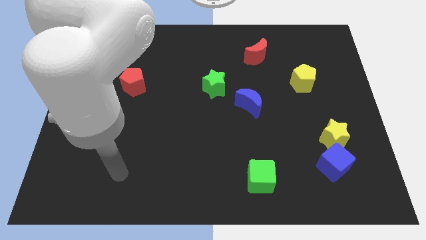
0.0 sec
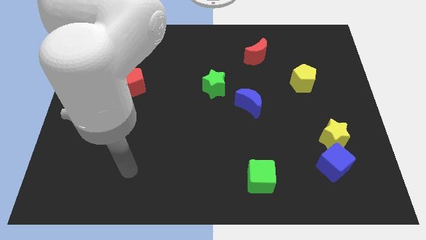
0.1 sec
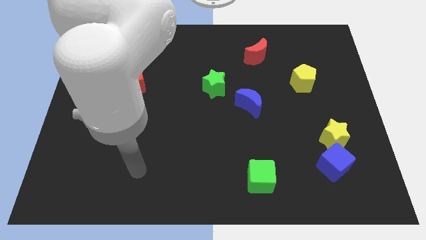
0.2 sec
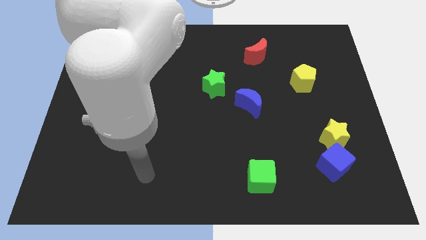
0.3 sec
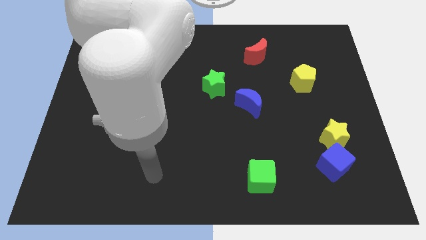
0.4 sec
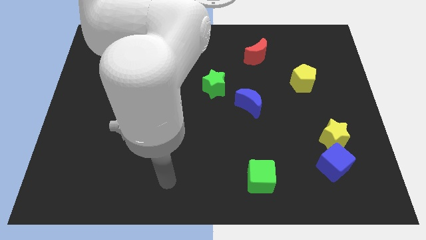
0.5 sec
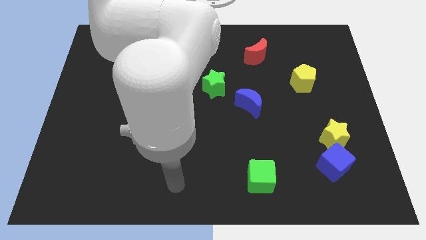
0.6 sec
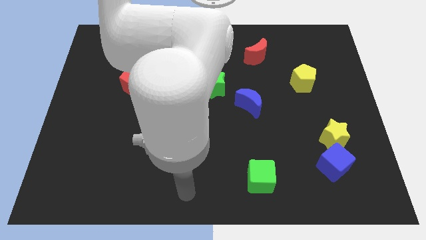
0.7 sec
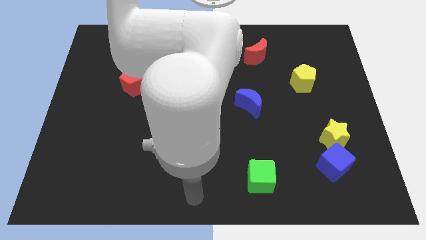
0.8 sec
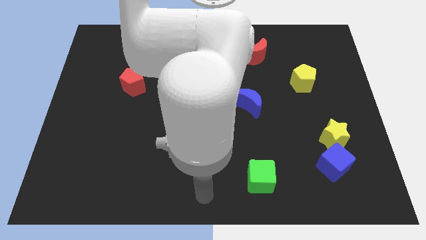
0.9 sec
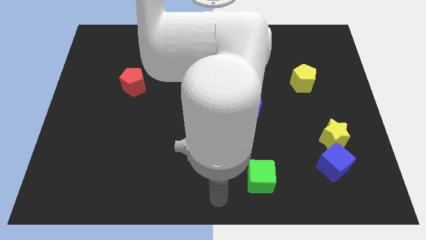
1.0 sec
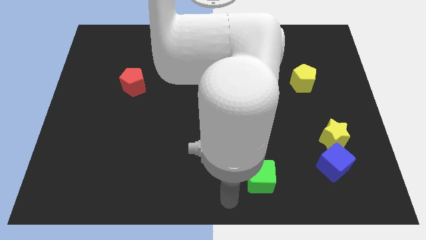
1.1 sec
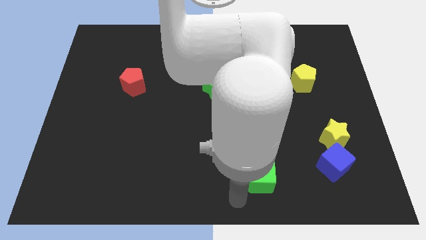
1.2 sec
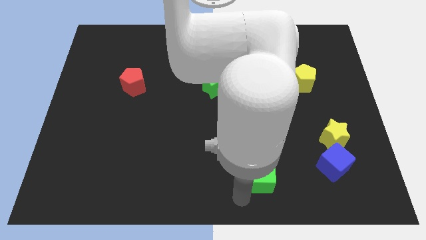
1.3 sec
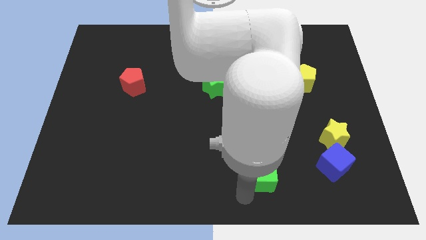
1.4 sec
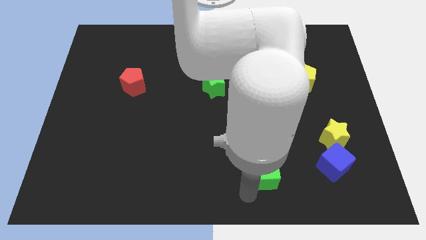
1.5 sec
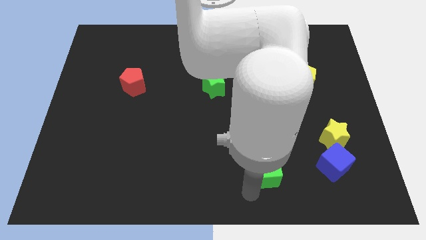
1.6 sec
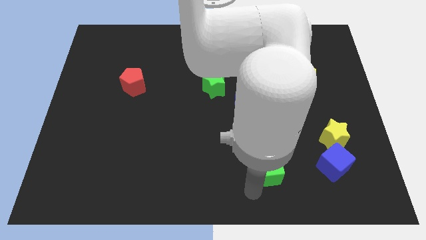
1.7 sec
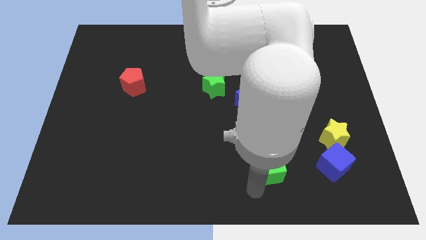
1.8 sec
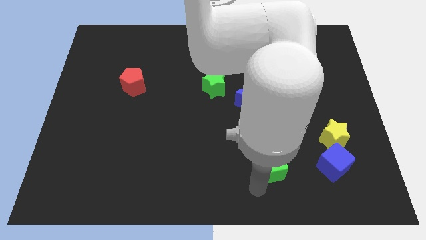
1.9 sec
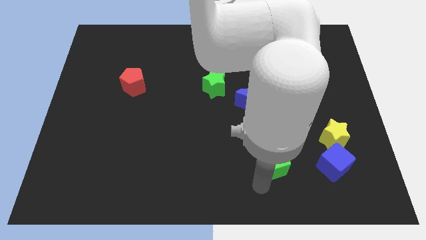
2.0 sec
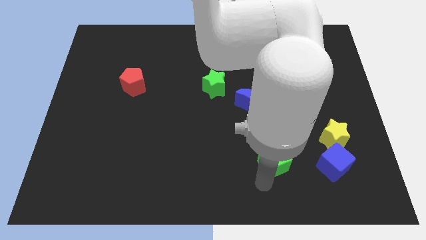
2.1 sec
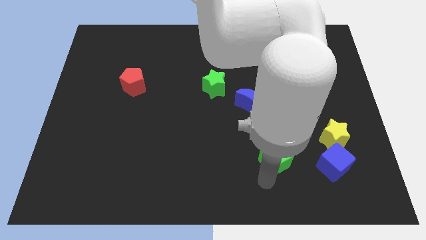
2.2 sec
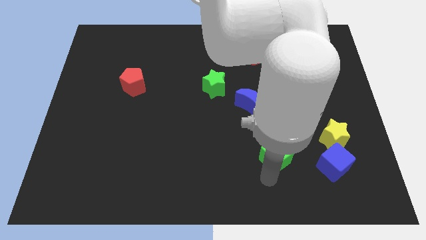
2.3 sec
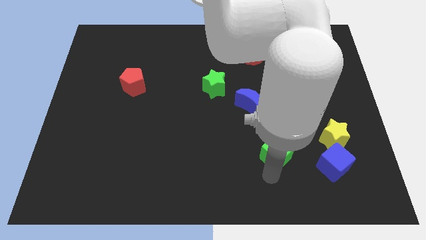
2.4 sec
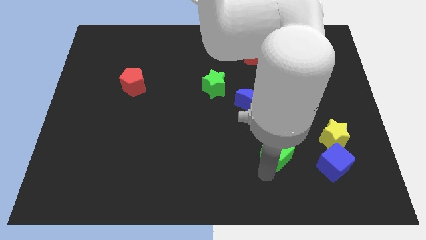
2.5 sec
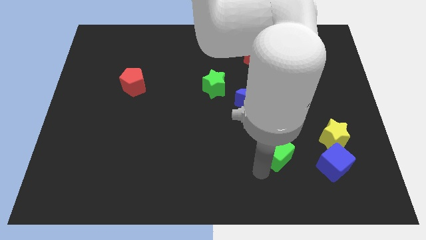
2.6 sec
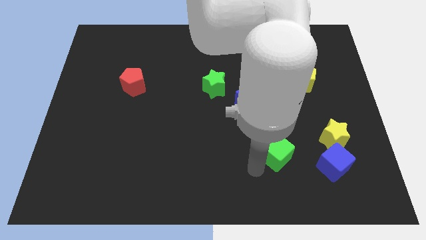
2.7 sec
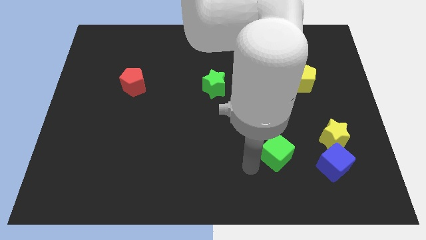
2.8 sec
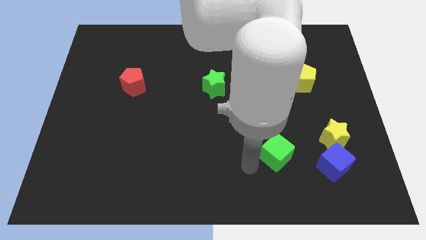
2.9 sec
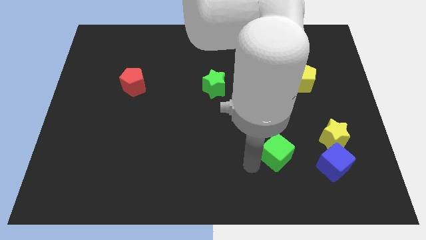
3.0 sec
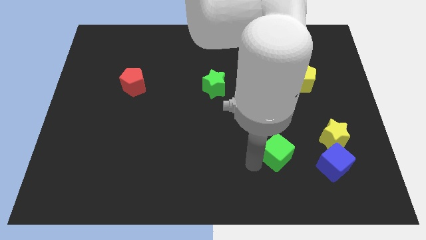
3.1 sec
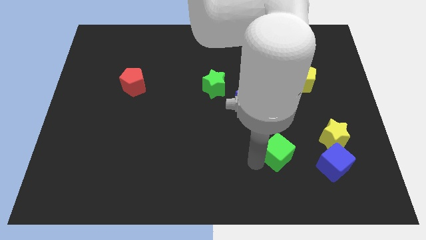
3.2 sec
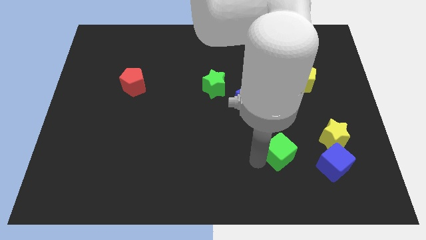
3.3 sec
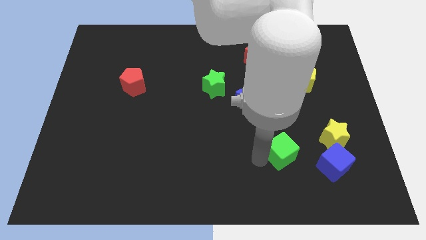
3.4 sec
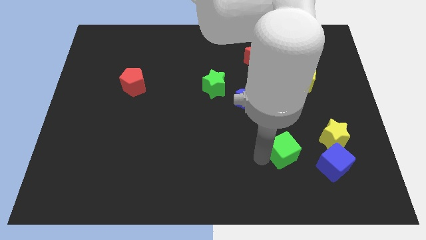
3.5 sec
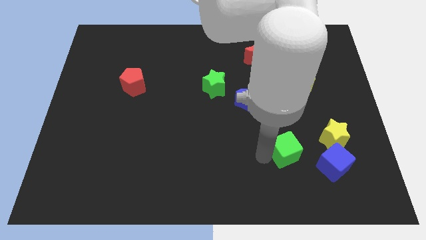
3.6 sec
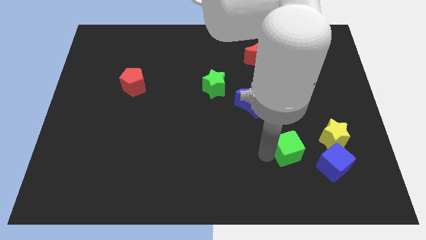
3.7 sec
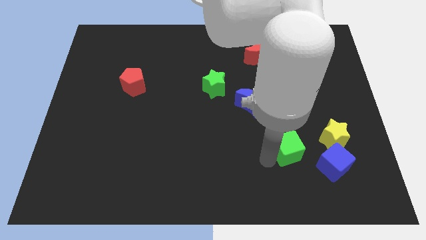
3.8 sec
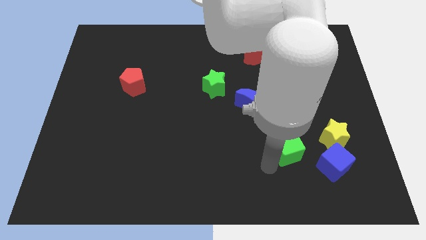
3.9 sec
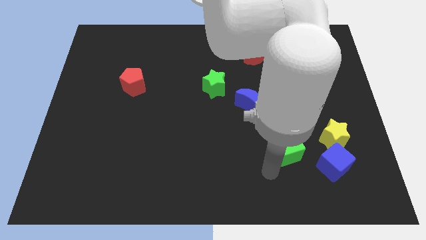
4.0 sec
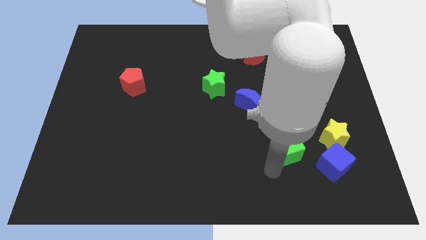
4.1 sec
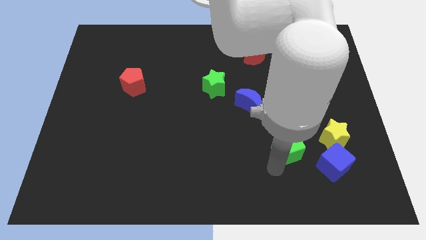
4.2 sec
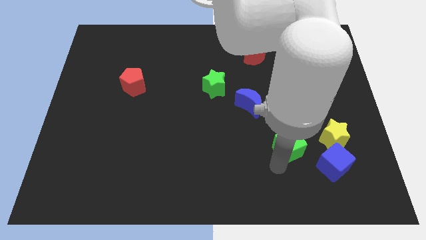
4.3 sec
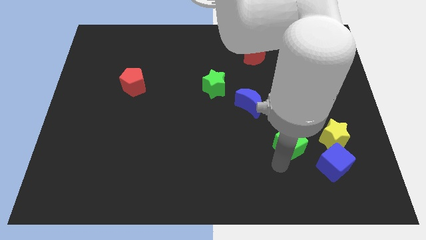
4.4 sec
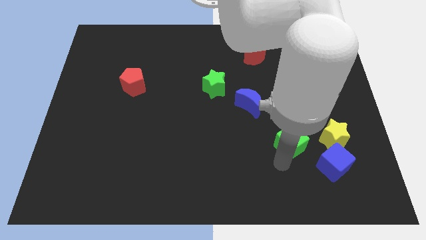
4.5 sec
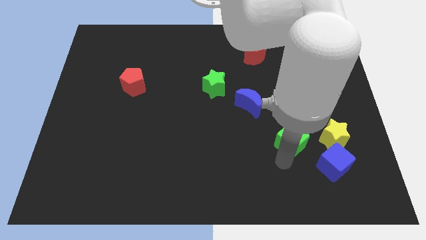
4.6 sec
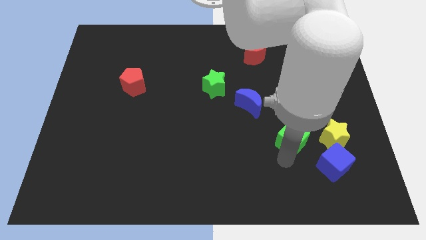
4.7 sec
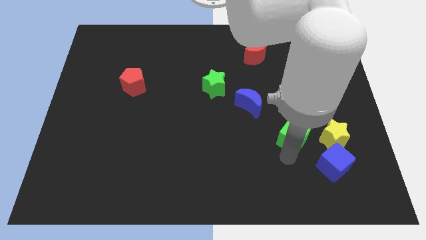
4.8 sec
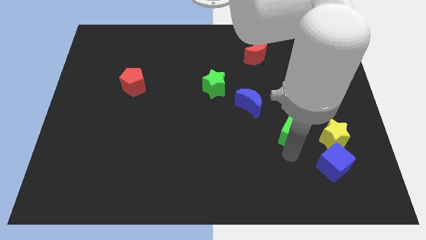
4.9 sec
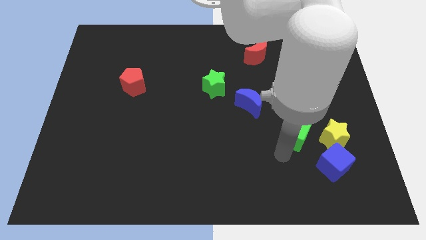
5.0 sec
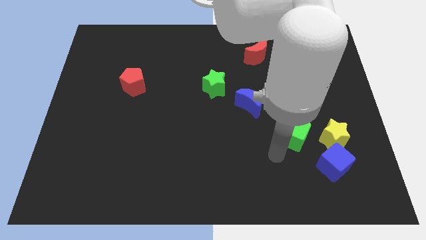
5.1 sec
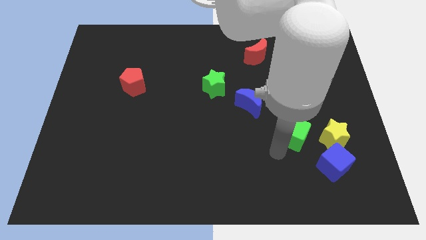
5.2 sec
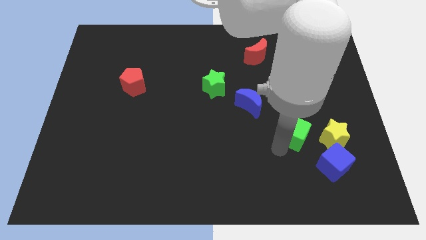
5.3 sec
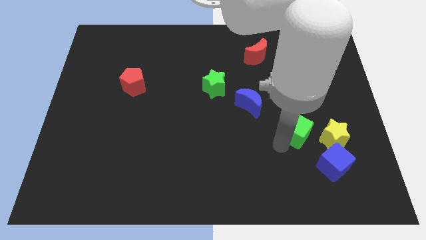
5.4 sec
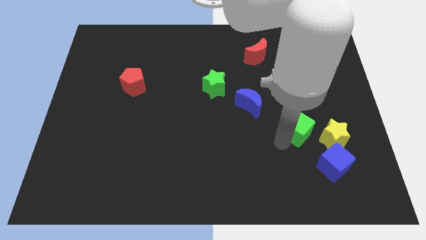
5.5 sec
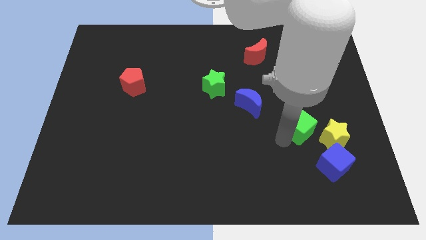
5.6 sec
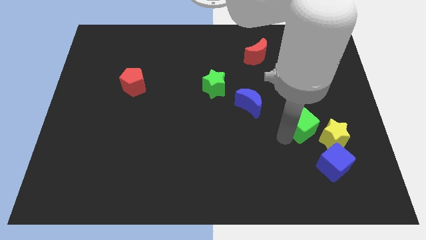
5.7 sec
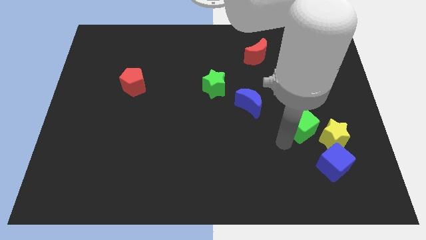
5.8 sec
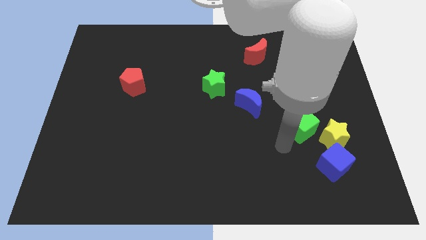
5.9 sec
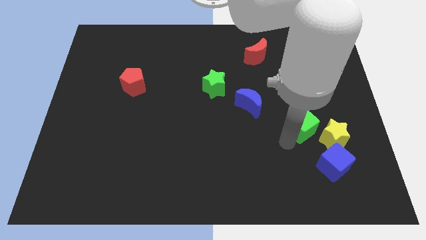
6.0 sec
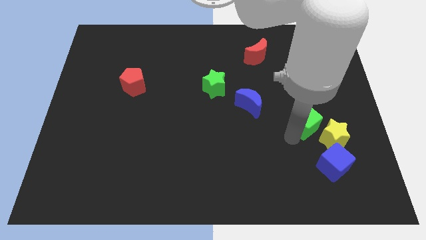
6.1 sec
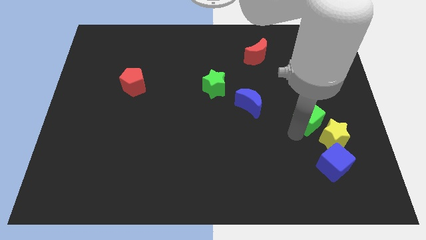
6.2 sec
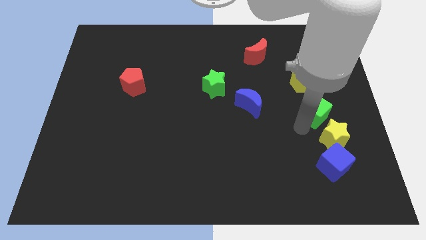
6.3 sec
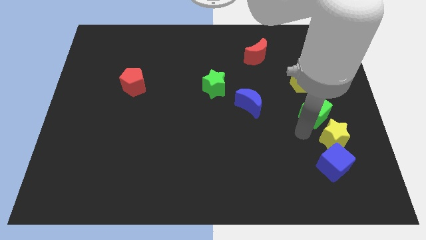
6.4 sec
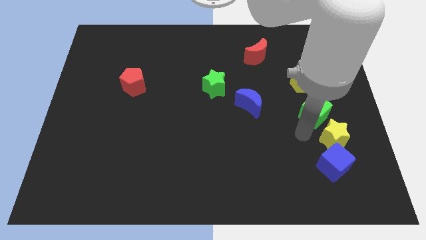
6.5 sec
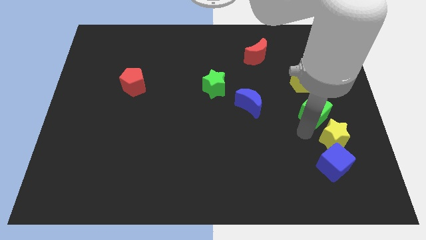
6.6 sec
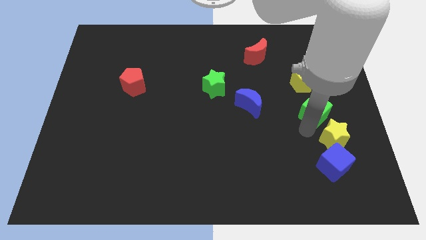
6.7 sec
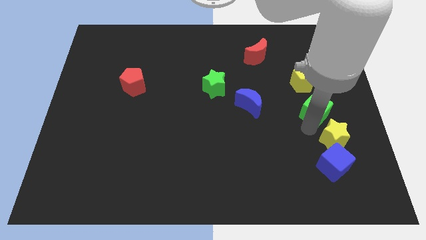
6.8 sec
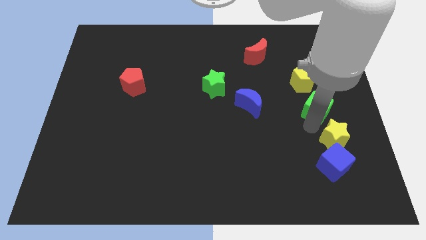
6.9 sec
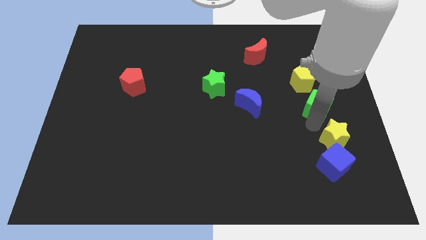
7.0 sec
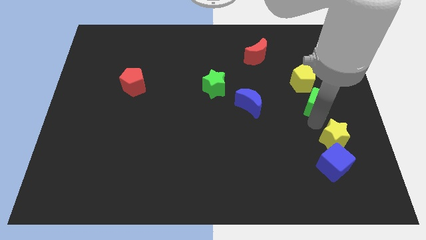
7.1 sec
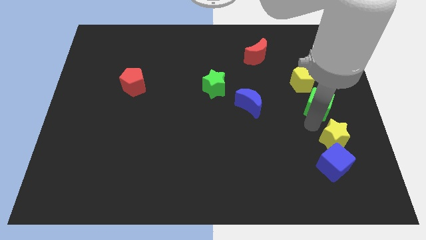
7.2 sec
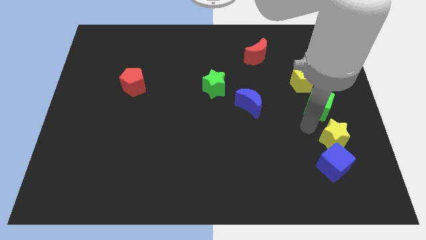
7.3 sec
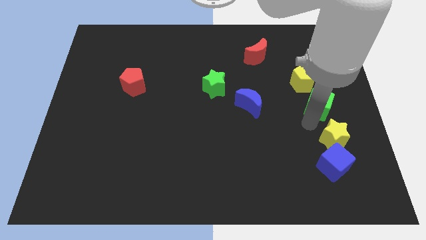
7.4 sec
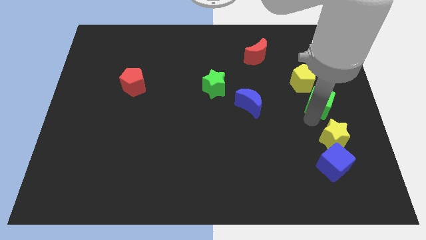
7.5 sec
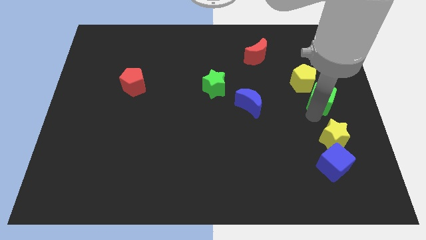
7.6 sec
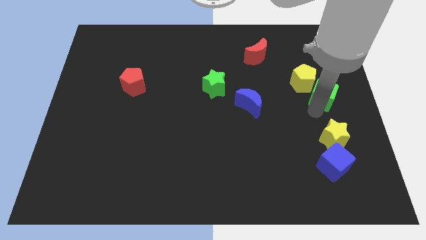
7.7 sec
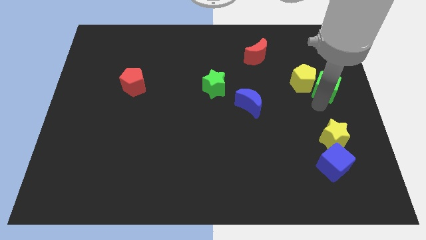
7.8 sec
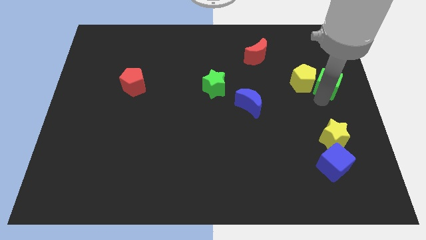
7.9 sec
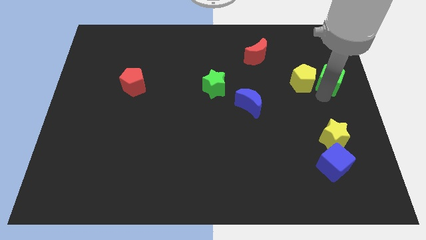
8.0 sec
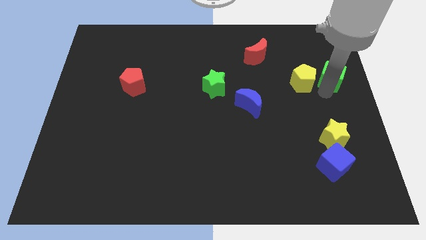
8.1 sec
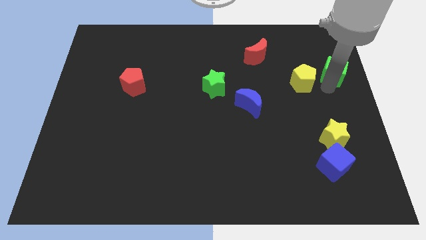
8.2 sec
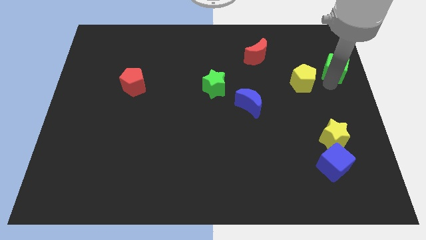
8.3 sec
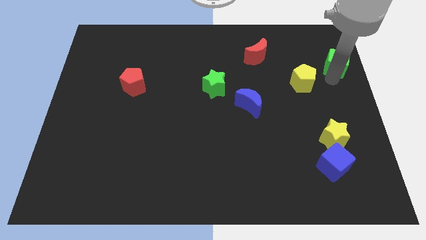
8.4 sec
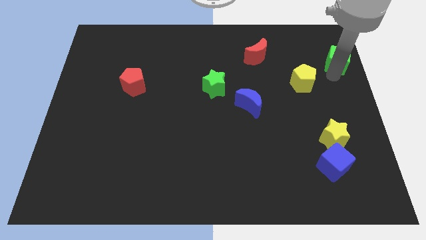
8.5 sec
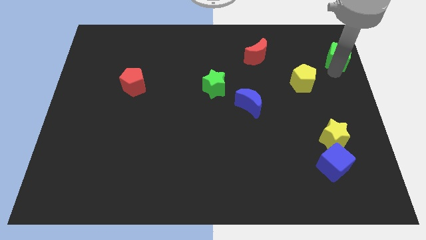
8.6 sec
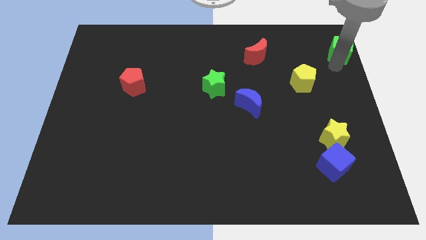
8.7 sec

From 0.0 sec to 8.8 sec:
push the green cube to the top right corner

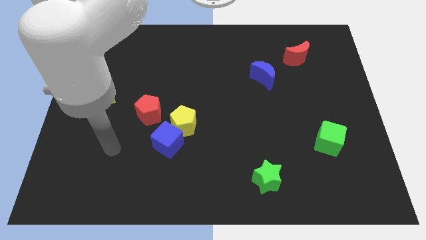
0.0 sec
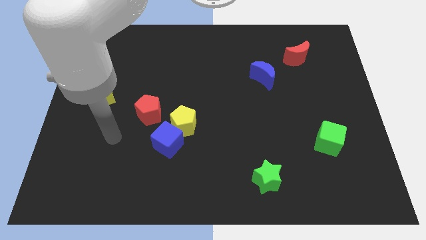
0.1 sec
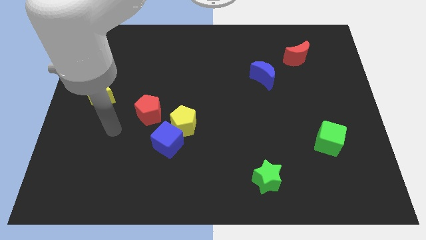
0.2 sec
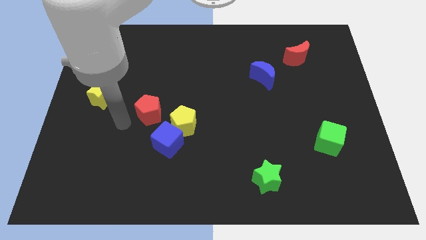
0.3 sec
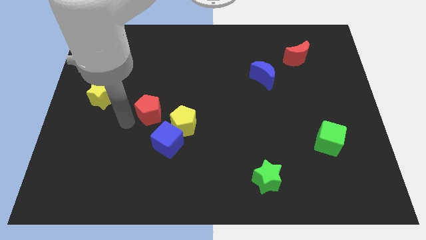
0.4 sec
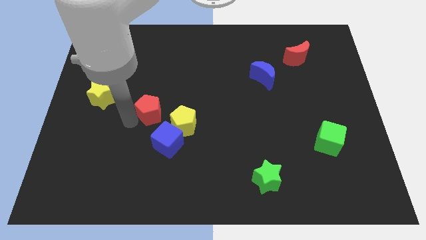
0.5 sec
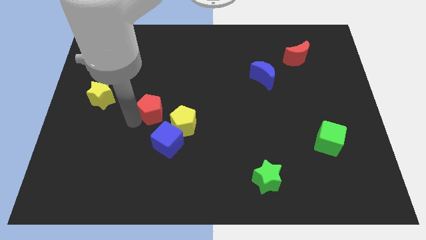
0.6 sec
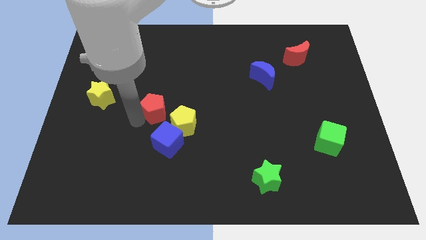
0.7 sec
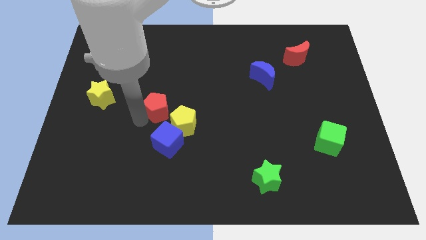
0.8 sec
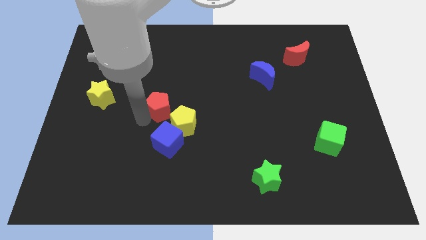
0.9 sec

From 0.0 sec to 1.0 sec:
move the red pentagon to the center
